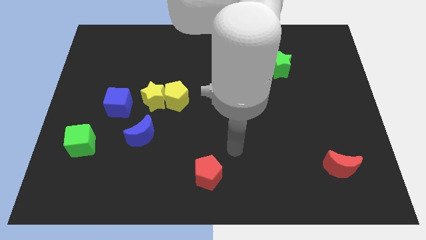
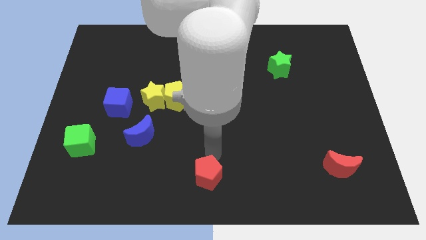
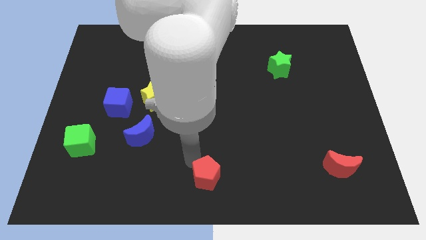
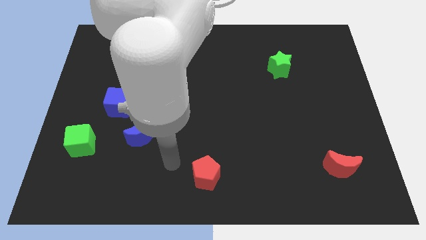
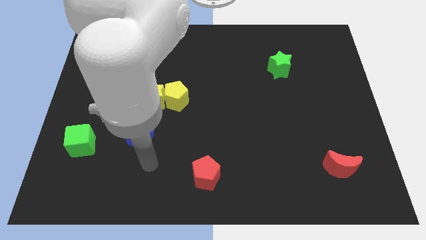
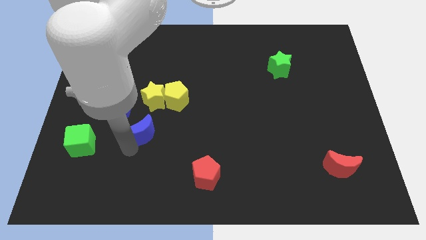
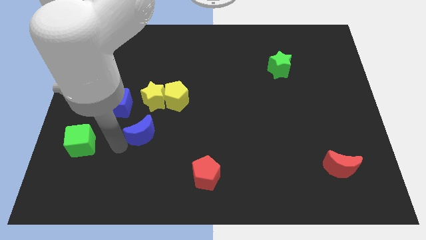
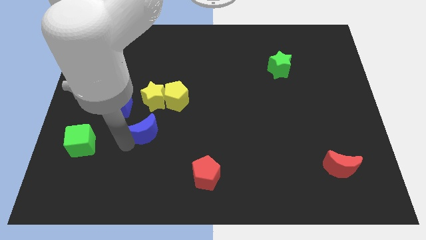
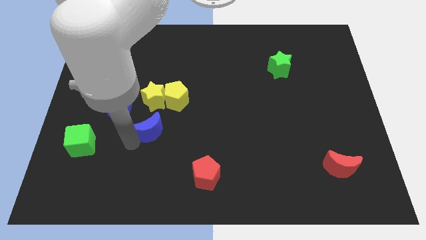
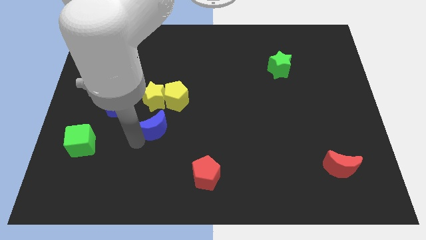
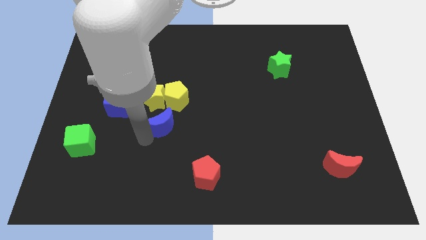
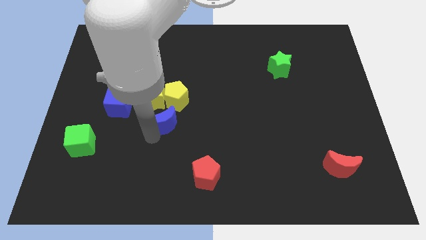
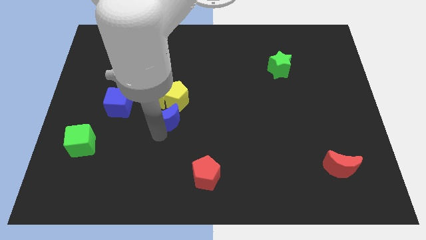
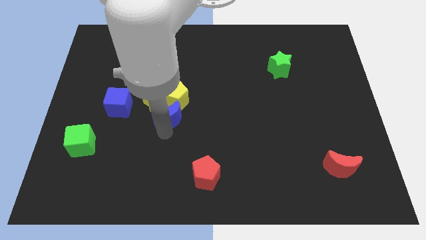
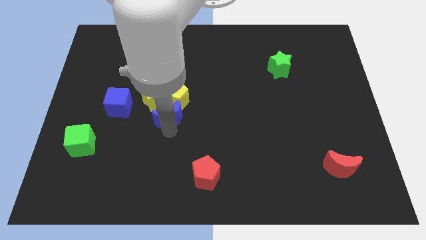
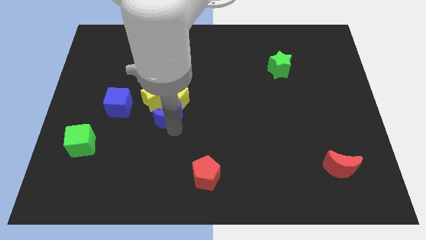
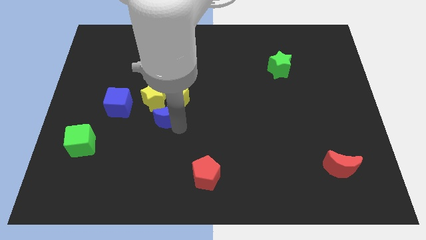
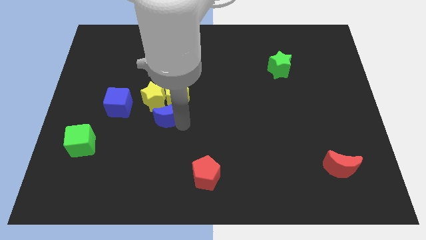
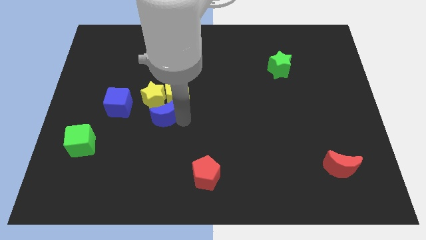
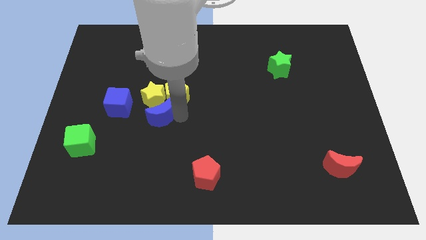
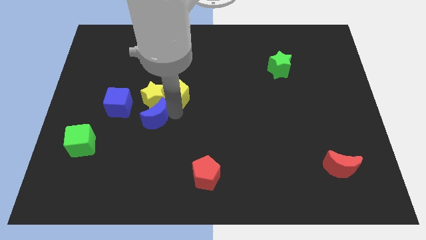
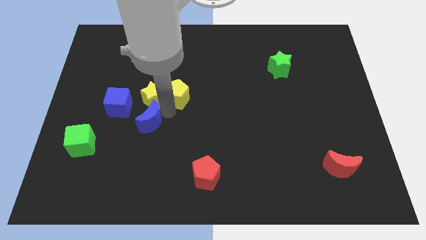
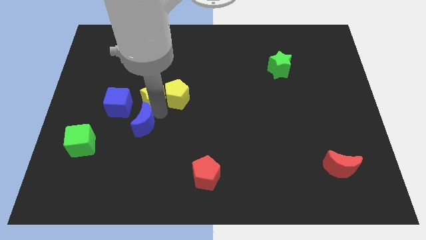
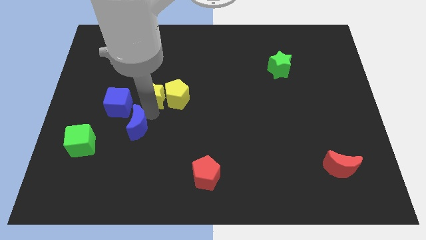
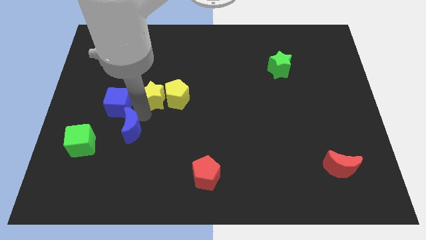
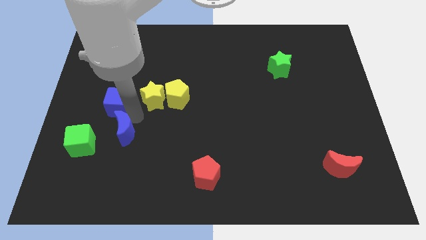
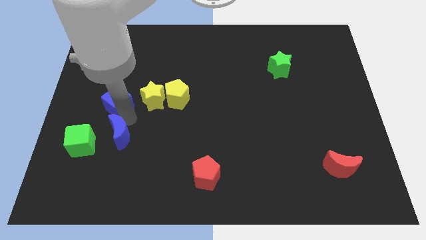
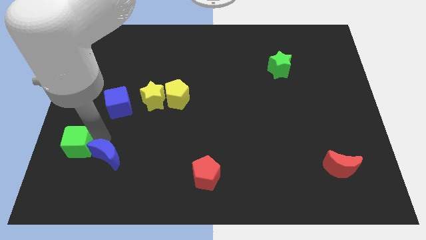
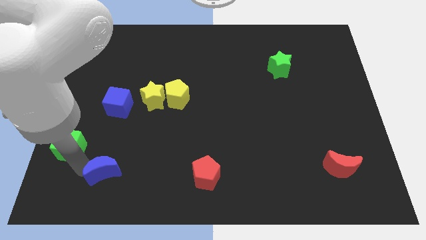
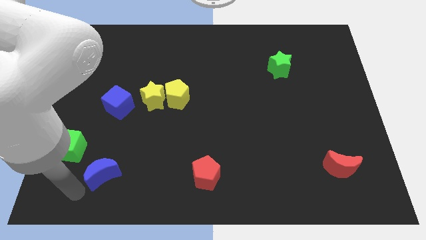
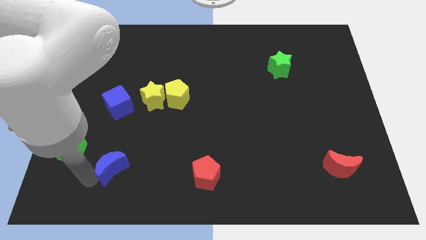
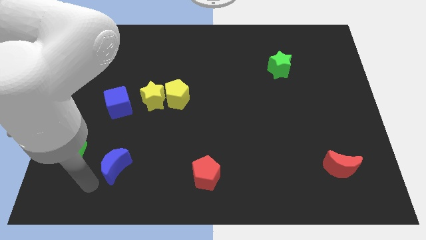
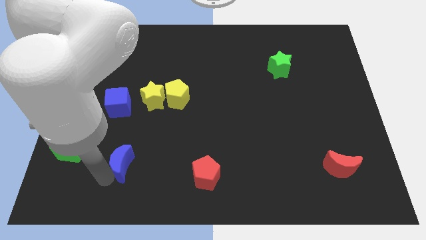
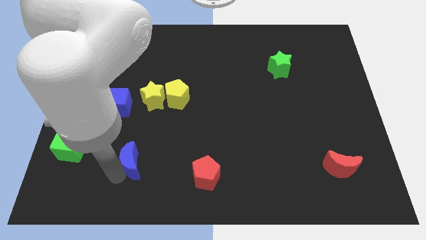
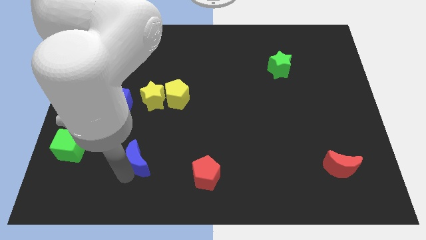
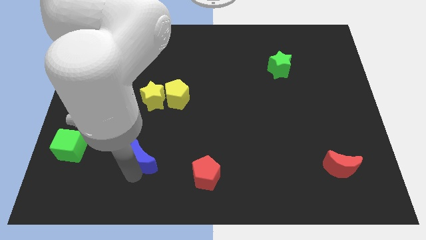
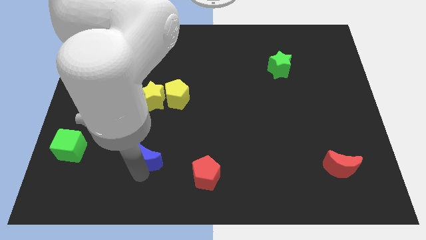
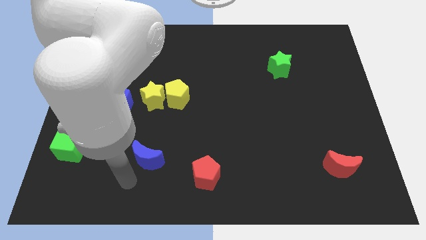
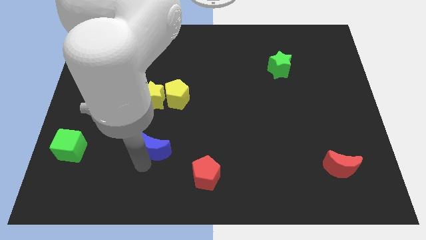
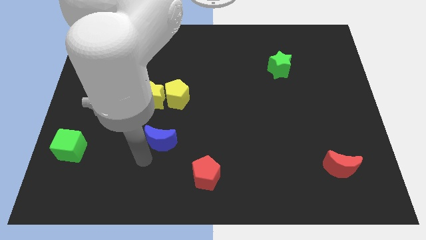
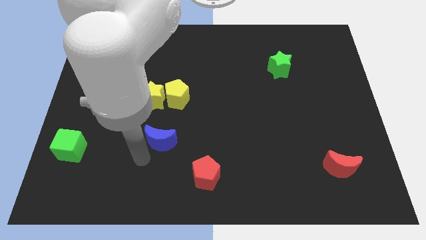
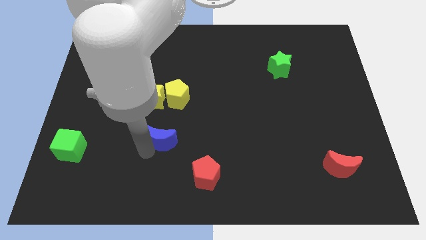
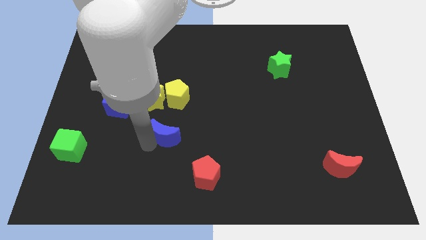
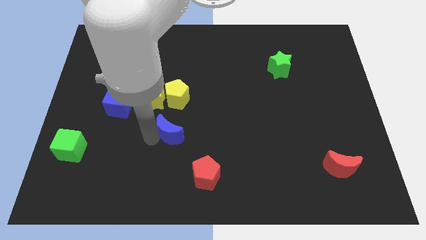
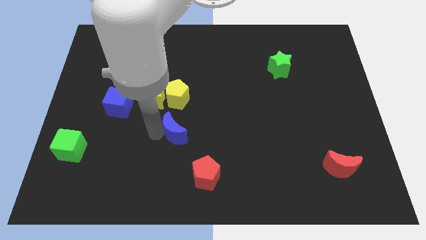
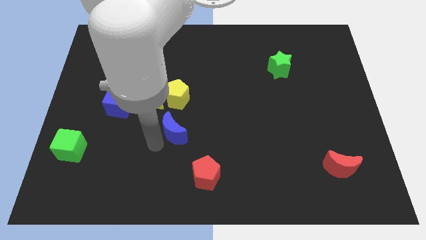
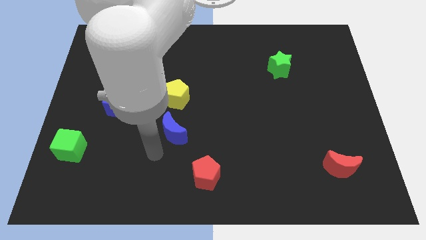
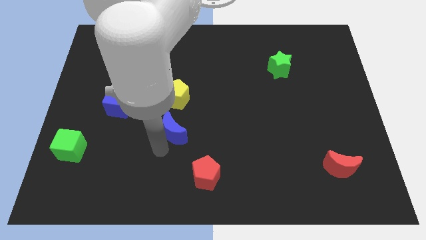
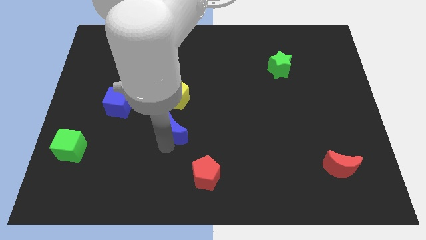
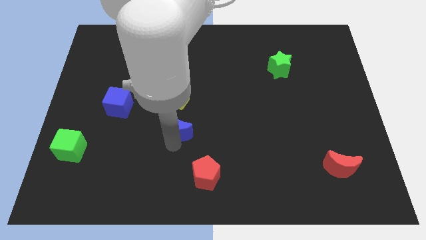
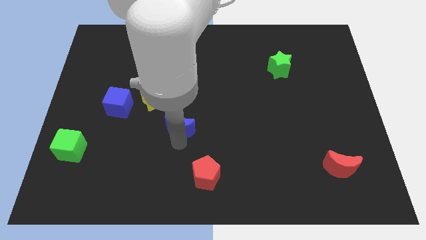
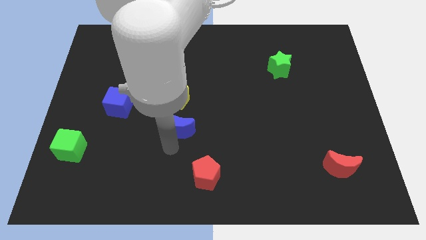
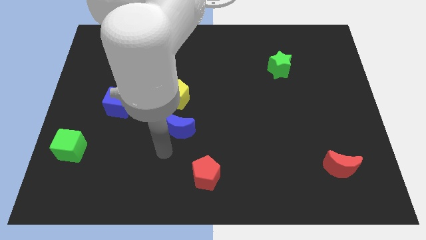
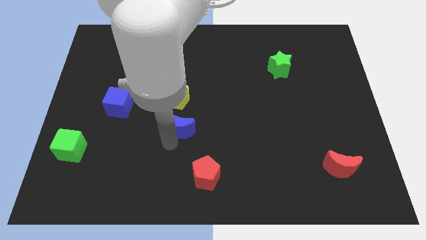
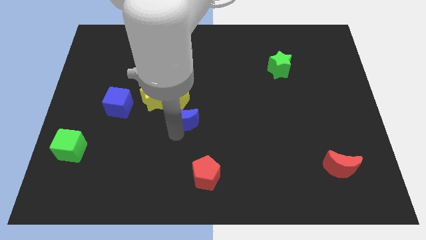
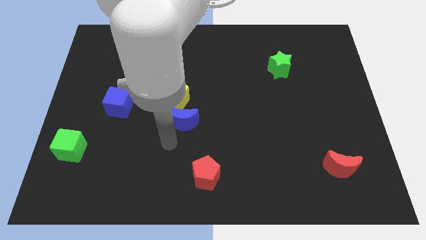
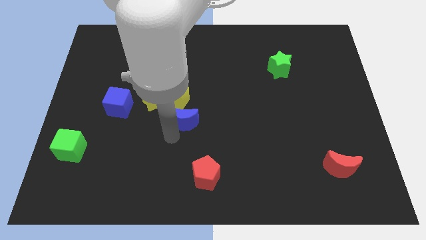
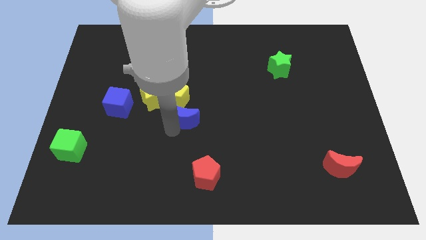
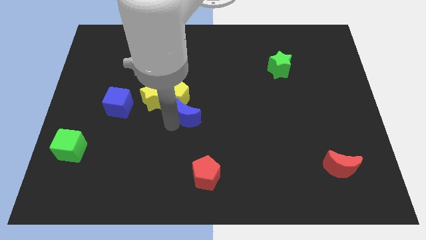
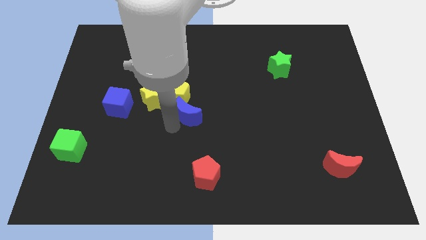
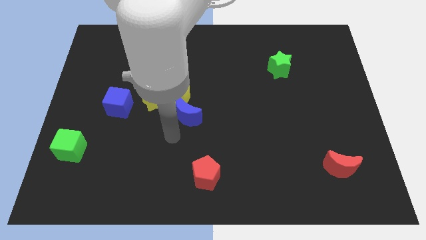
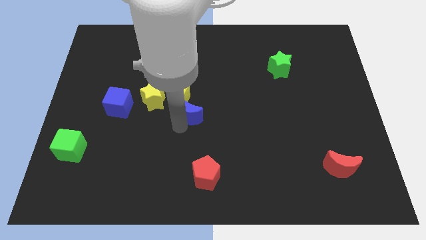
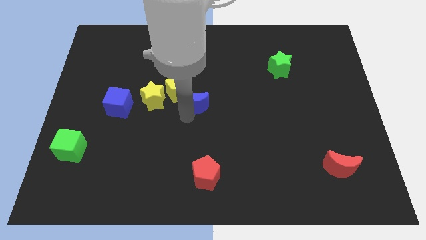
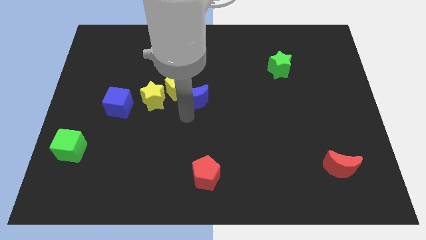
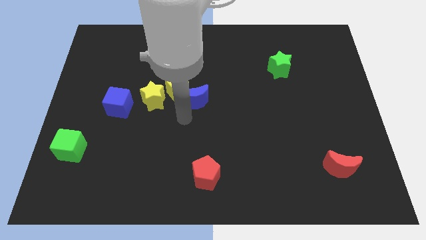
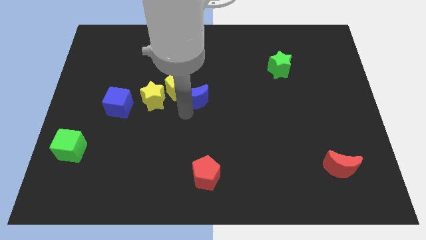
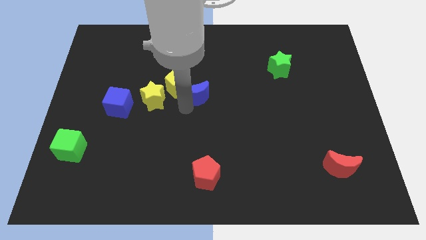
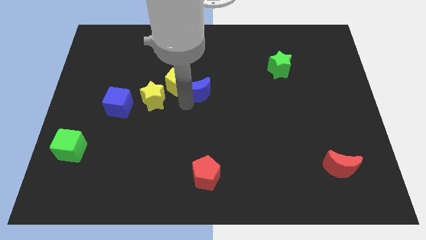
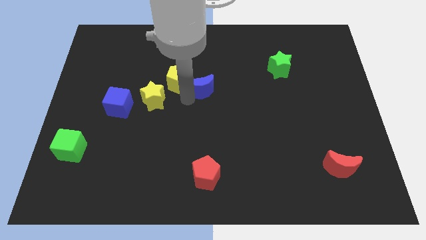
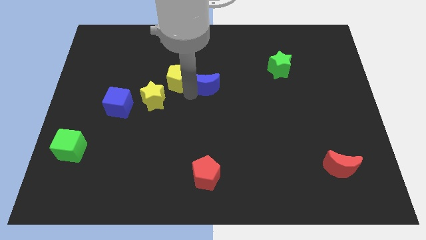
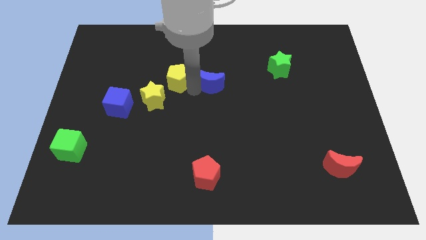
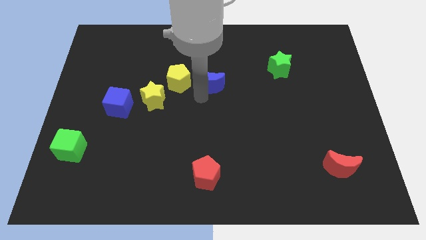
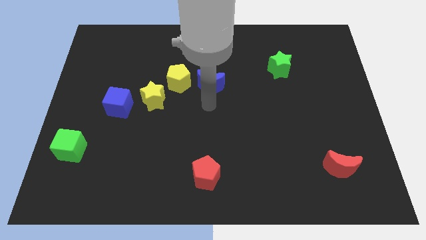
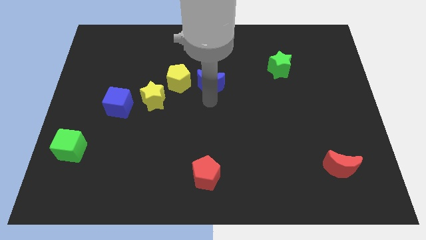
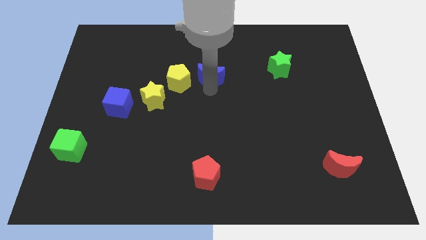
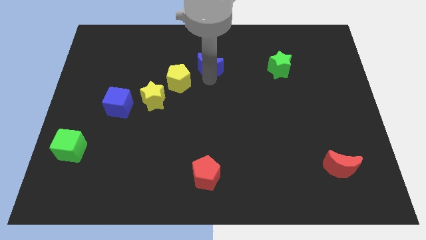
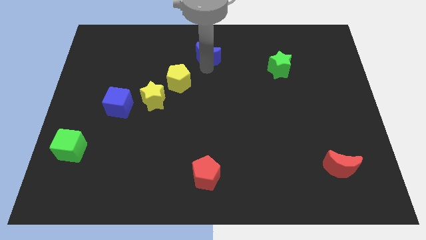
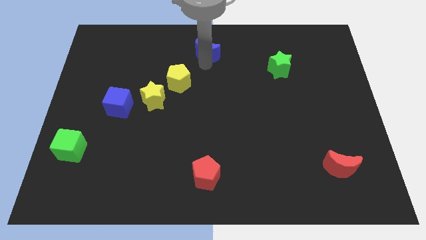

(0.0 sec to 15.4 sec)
move the blue moon to the top side

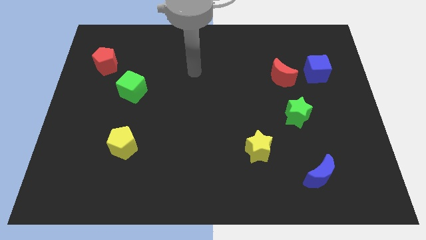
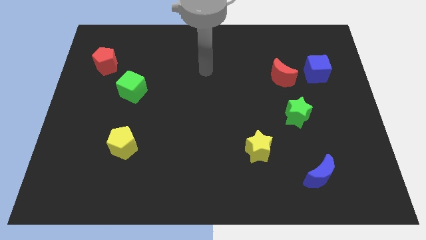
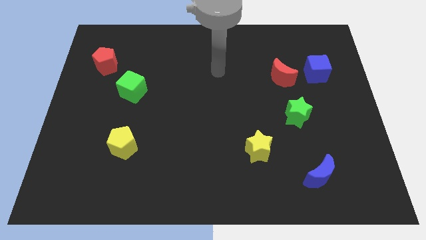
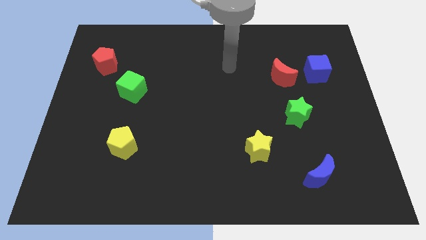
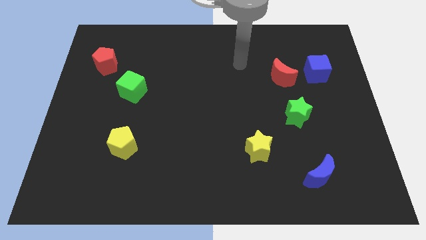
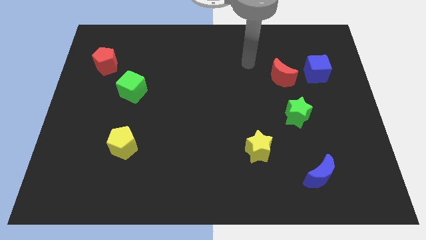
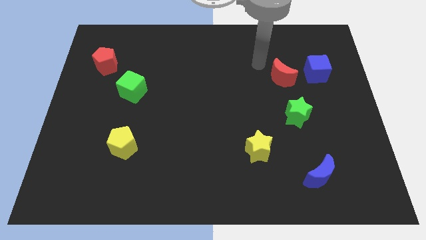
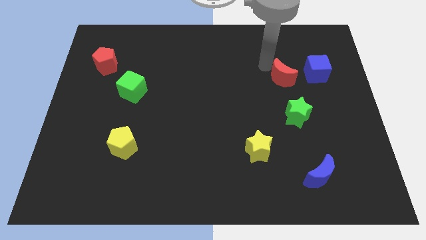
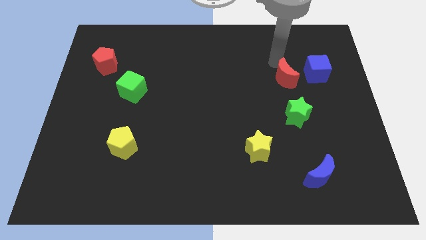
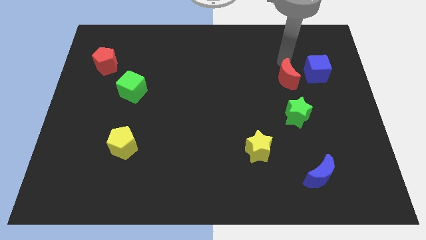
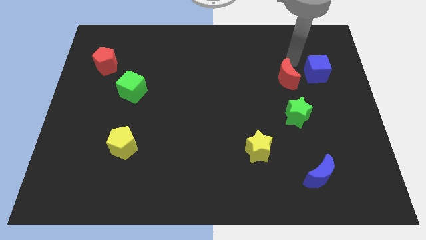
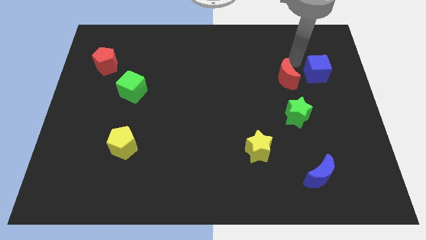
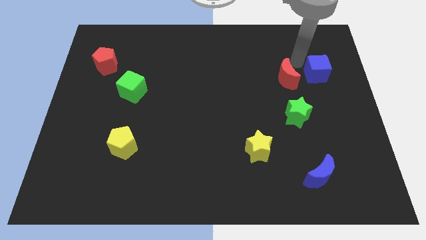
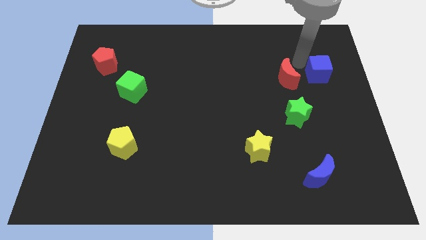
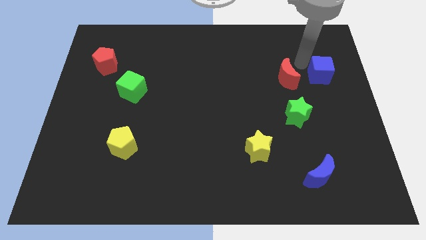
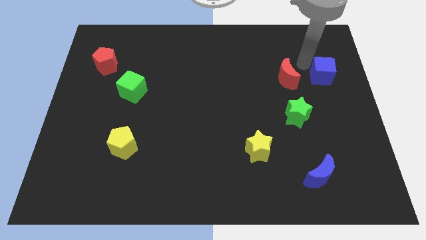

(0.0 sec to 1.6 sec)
slide the blue cube to the center right
